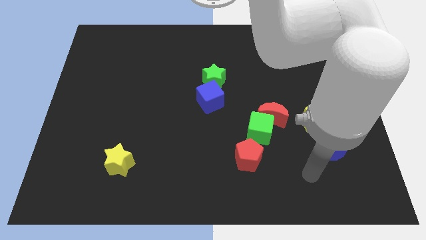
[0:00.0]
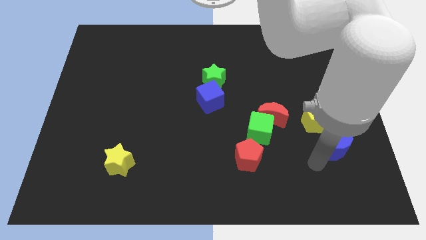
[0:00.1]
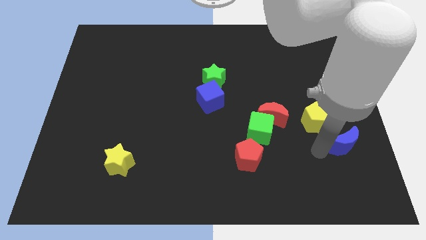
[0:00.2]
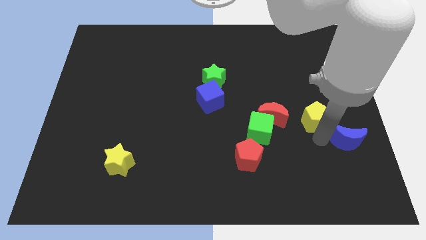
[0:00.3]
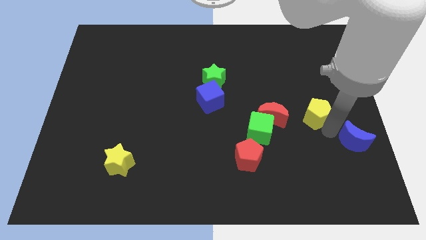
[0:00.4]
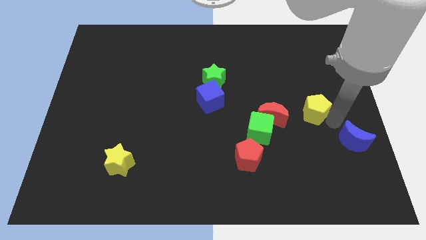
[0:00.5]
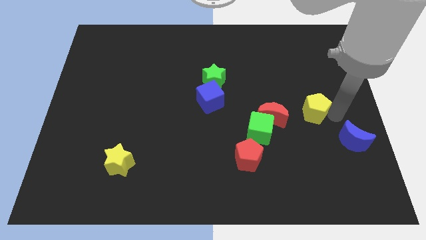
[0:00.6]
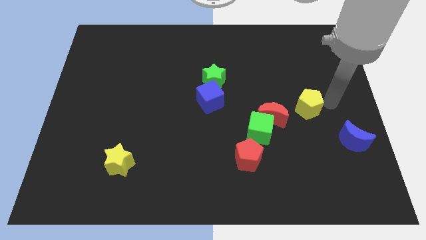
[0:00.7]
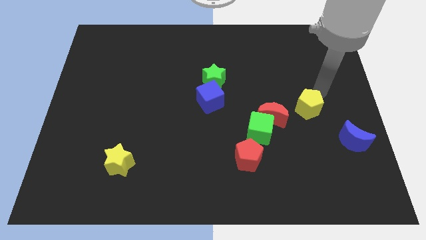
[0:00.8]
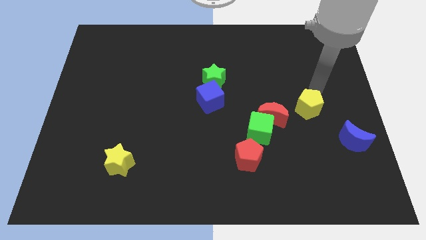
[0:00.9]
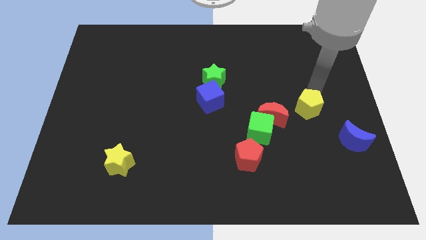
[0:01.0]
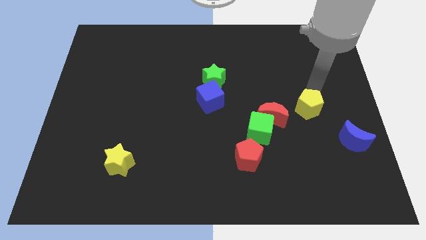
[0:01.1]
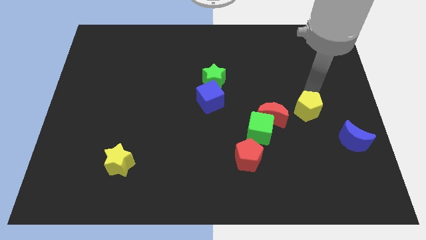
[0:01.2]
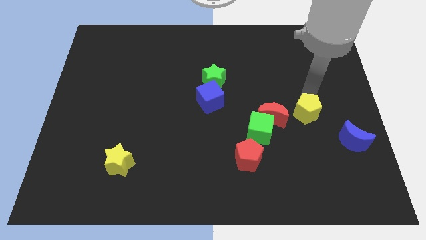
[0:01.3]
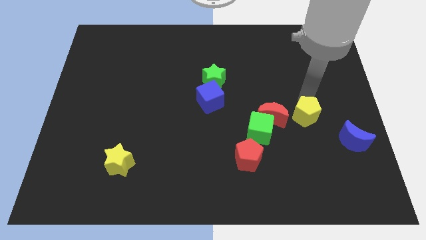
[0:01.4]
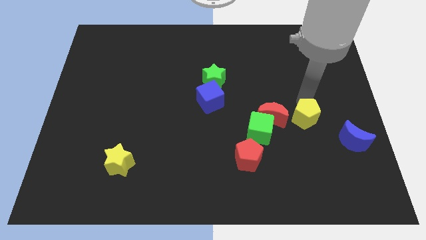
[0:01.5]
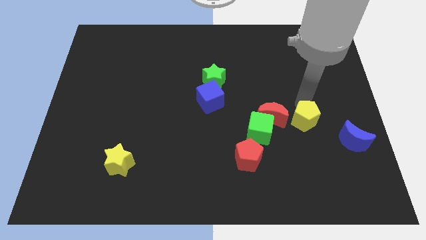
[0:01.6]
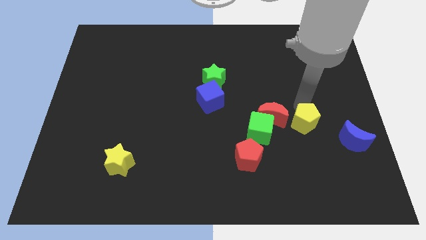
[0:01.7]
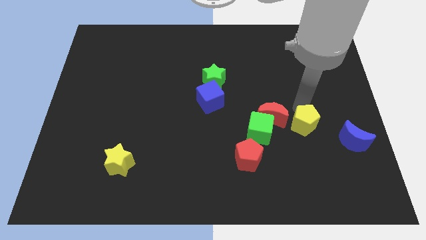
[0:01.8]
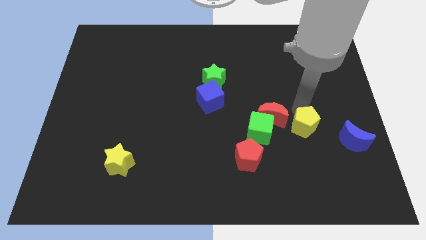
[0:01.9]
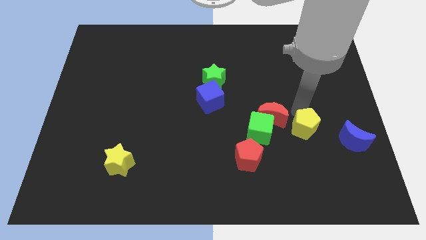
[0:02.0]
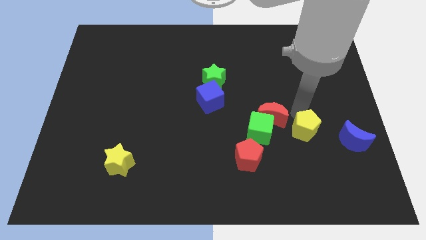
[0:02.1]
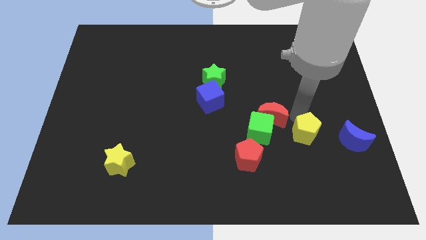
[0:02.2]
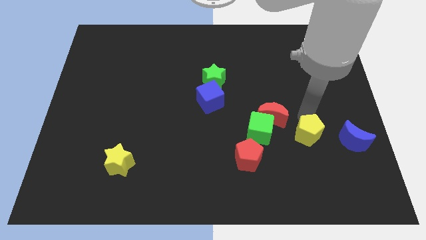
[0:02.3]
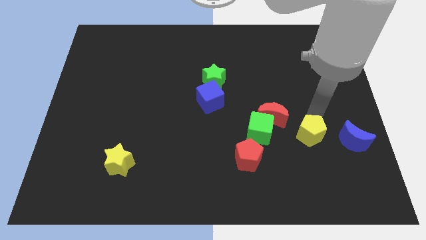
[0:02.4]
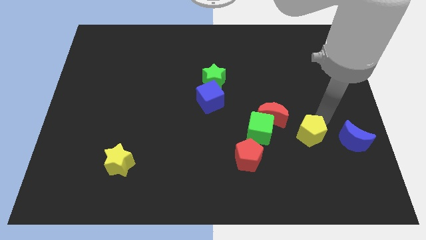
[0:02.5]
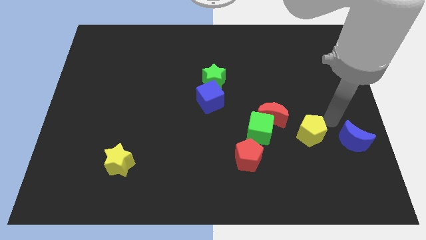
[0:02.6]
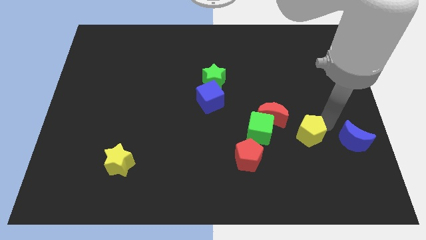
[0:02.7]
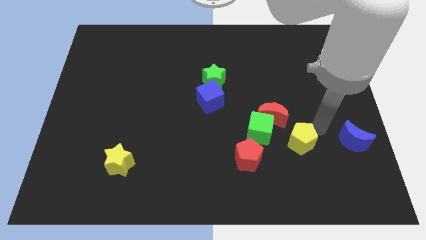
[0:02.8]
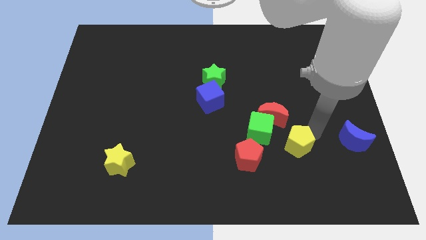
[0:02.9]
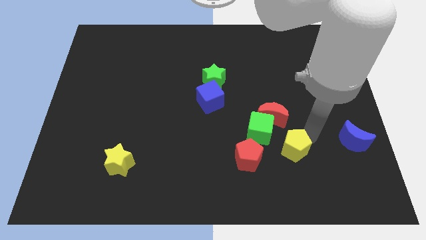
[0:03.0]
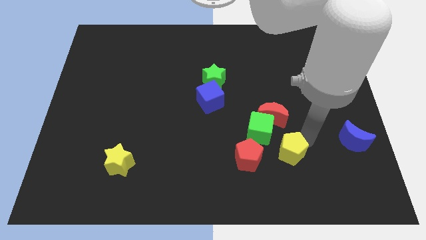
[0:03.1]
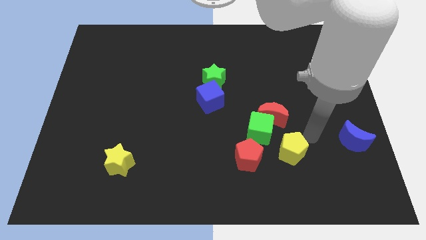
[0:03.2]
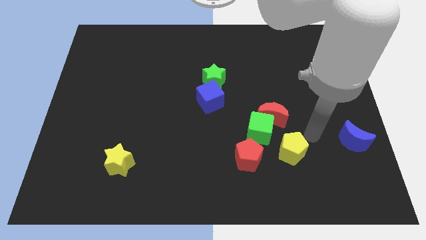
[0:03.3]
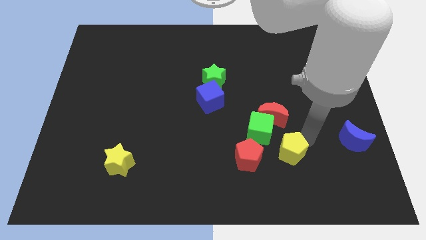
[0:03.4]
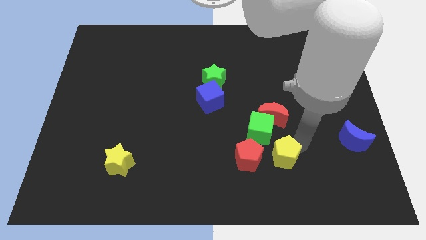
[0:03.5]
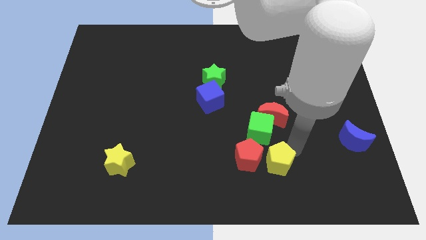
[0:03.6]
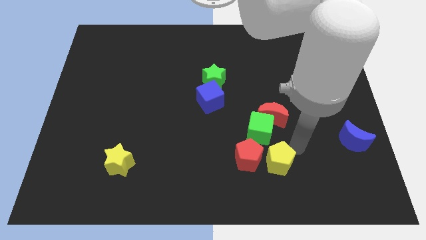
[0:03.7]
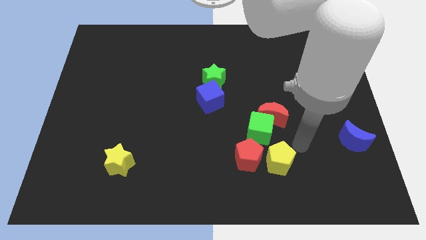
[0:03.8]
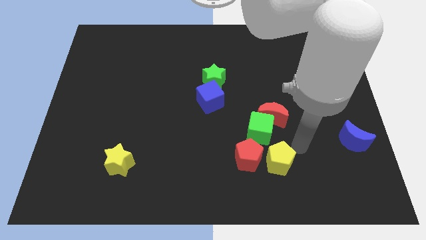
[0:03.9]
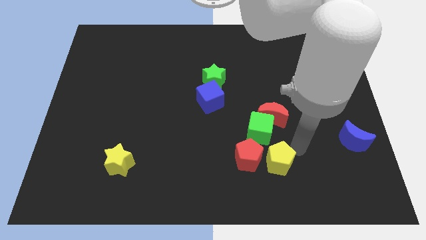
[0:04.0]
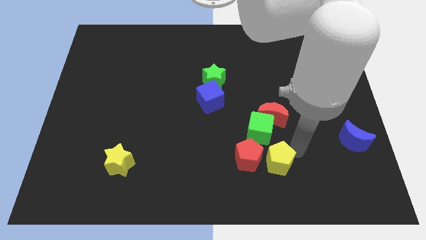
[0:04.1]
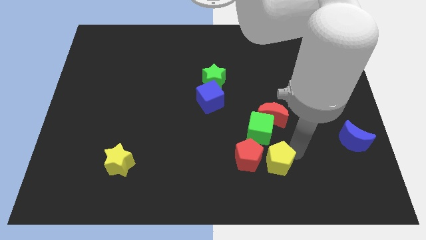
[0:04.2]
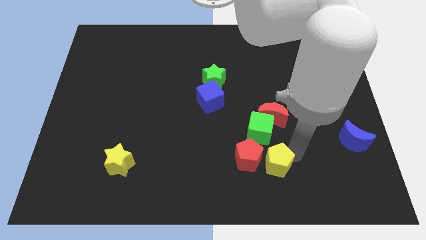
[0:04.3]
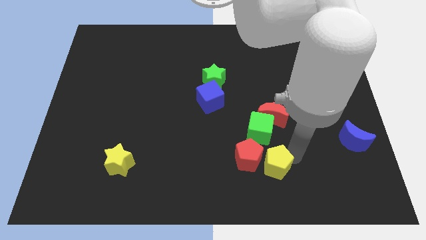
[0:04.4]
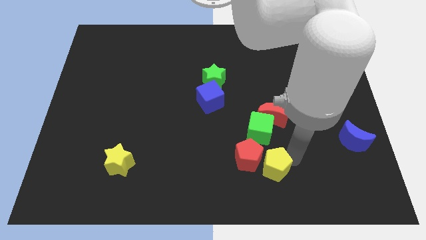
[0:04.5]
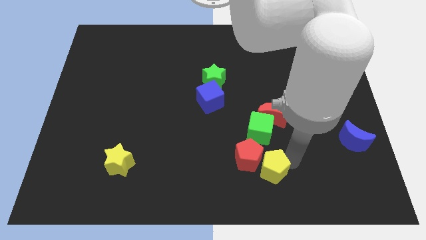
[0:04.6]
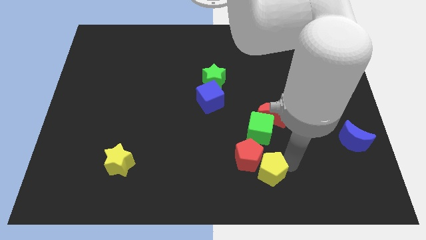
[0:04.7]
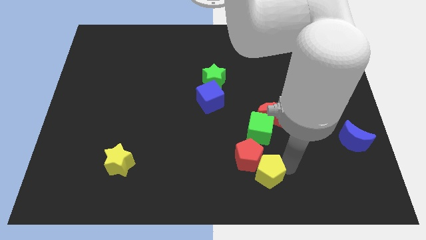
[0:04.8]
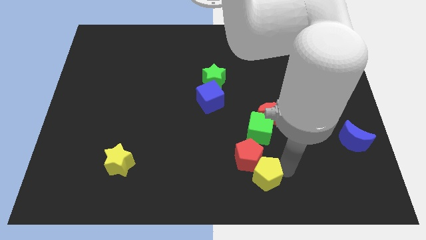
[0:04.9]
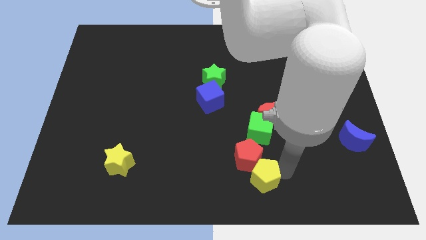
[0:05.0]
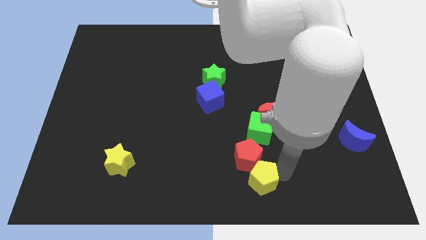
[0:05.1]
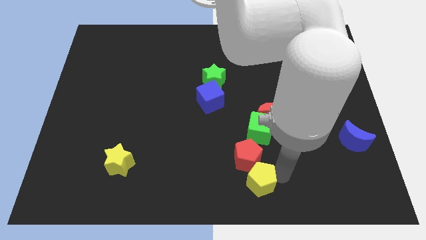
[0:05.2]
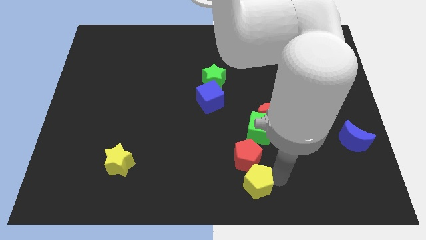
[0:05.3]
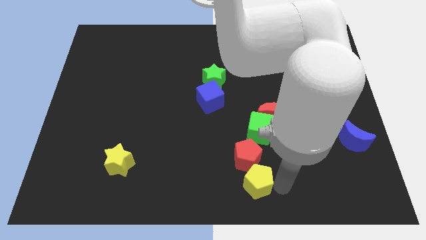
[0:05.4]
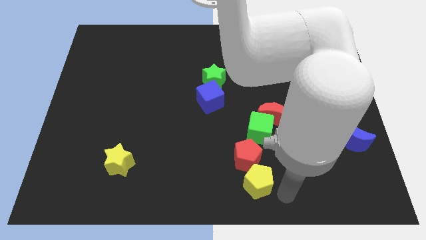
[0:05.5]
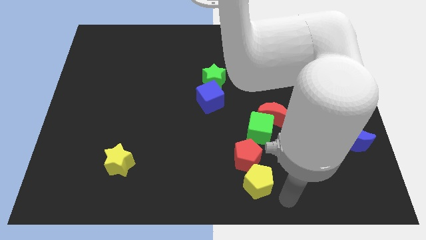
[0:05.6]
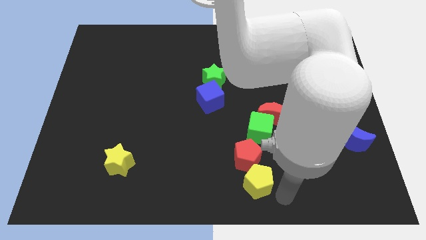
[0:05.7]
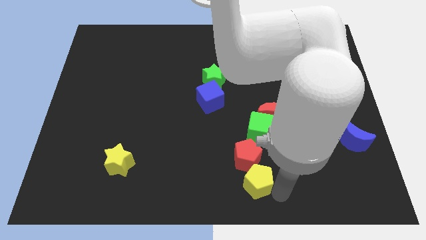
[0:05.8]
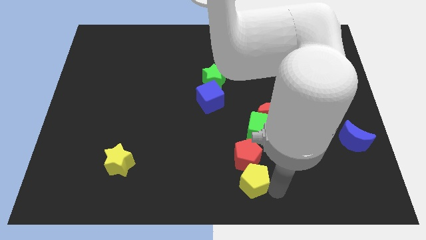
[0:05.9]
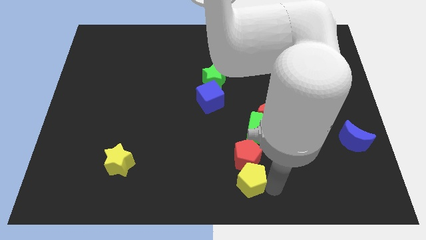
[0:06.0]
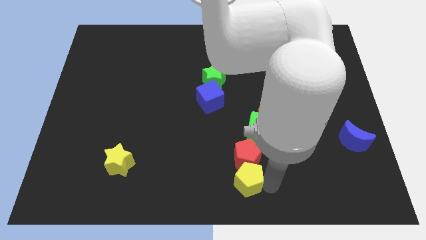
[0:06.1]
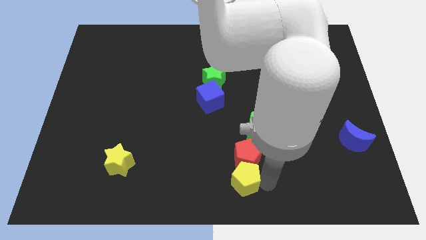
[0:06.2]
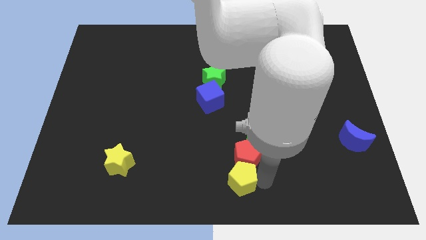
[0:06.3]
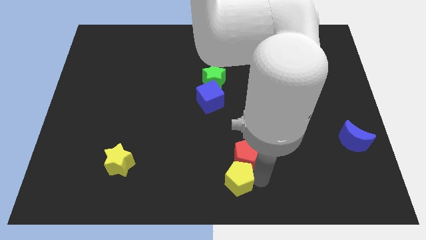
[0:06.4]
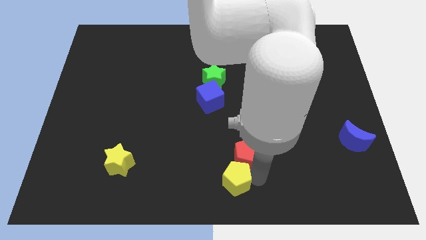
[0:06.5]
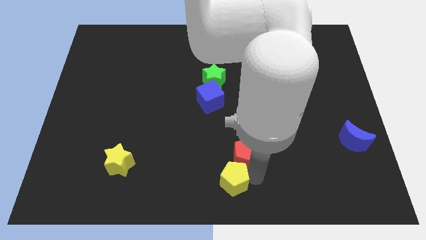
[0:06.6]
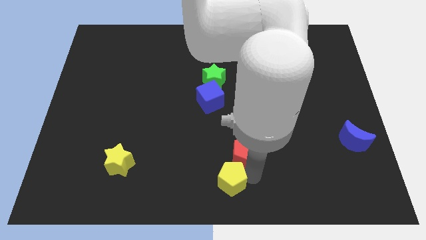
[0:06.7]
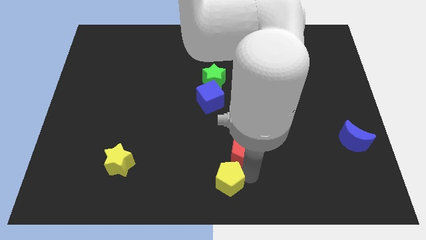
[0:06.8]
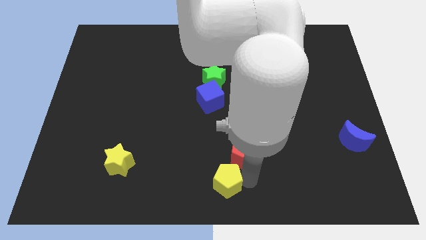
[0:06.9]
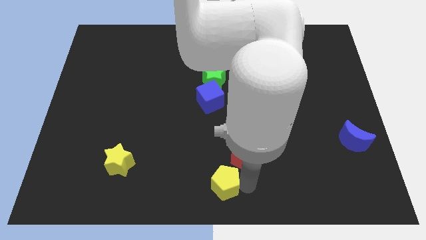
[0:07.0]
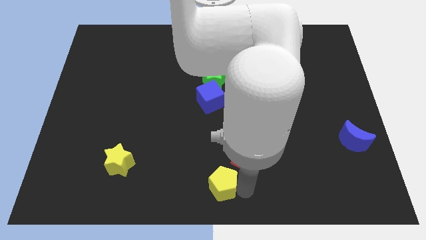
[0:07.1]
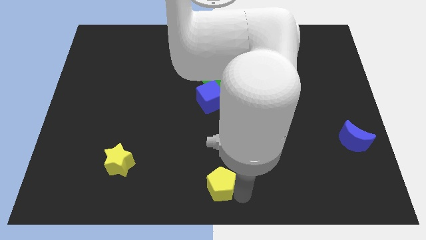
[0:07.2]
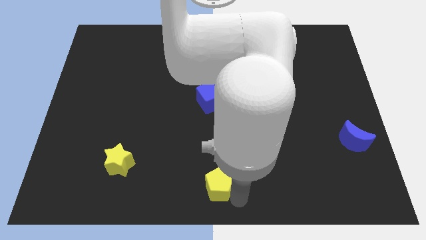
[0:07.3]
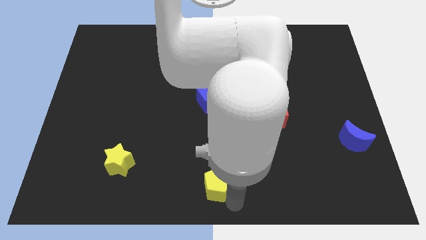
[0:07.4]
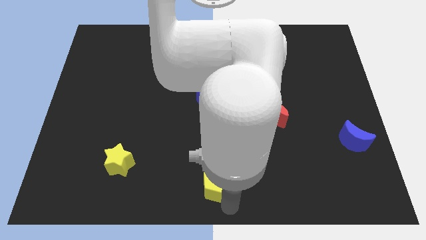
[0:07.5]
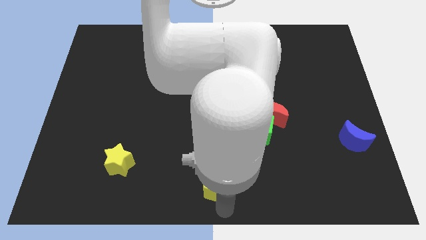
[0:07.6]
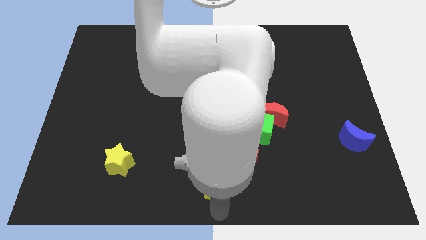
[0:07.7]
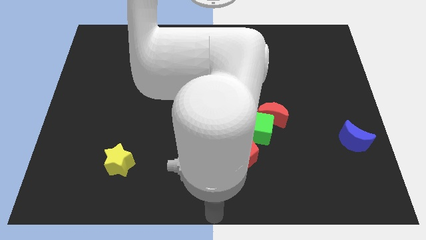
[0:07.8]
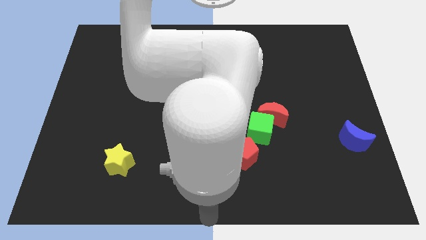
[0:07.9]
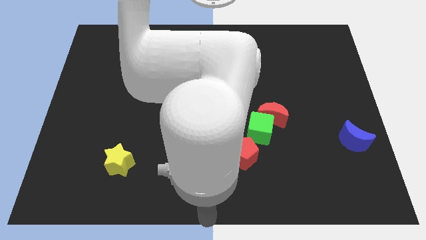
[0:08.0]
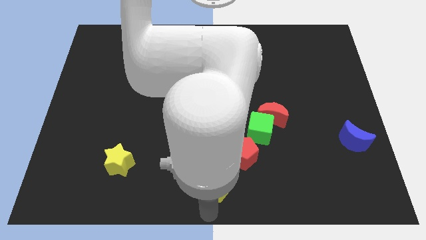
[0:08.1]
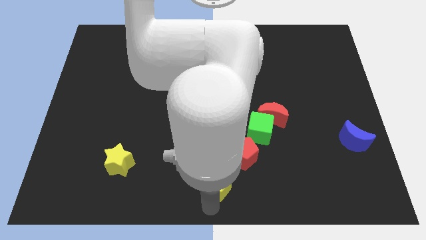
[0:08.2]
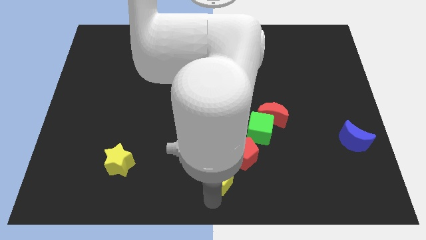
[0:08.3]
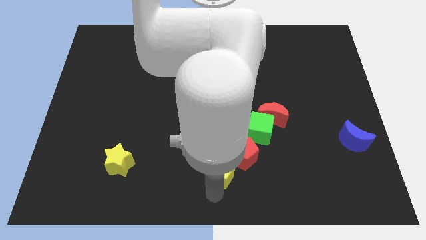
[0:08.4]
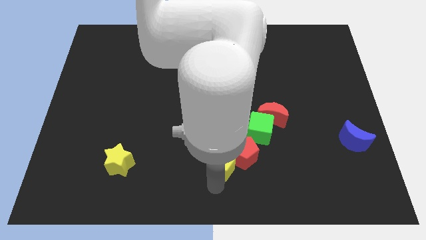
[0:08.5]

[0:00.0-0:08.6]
put the yellow pentagon diagonally down and to the left of the green cube
